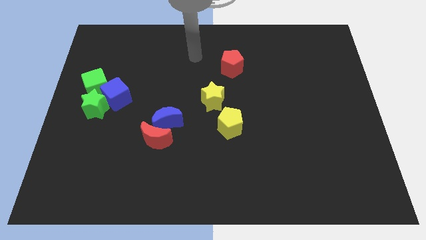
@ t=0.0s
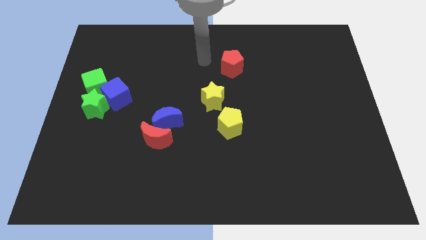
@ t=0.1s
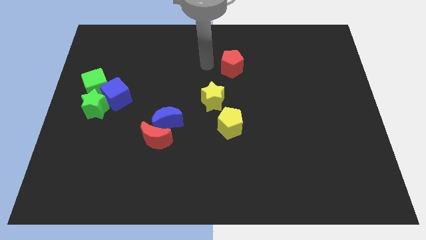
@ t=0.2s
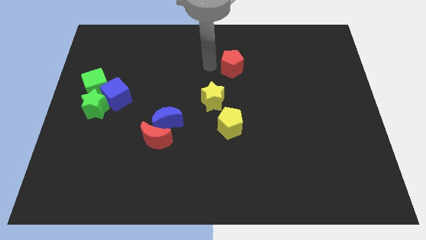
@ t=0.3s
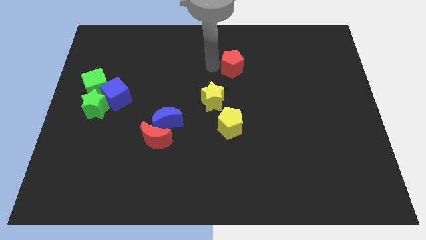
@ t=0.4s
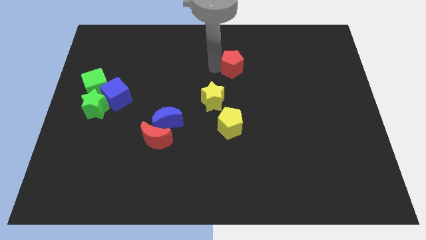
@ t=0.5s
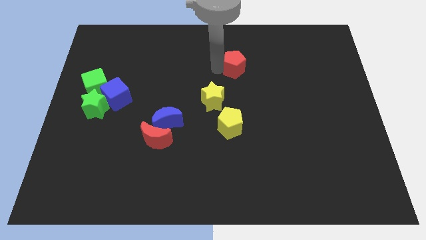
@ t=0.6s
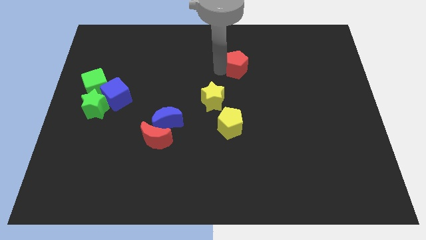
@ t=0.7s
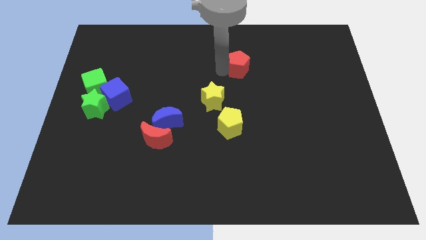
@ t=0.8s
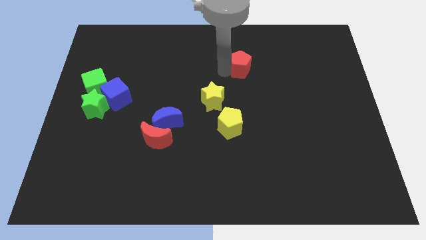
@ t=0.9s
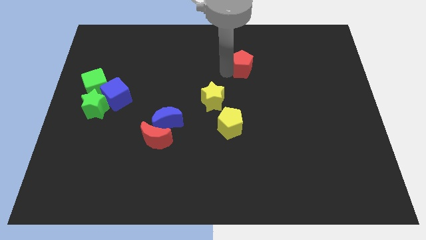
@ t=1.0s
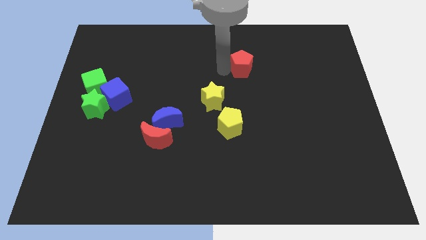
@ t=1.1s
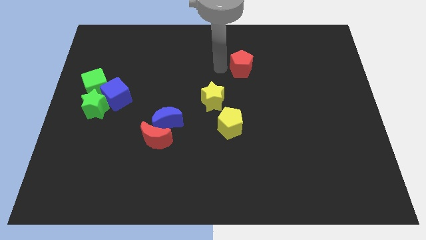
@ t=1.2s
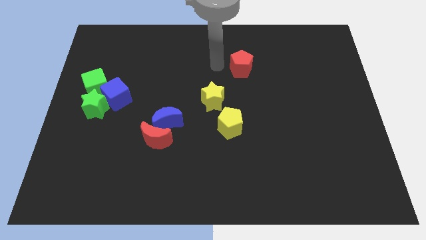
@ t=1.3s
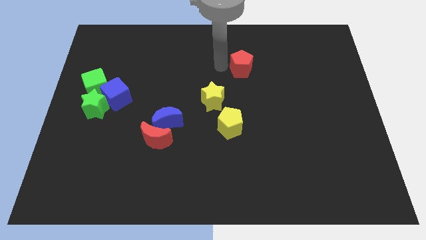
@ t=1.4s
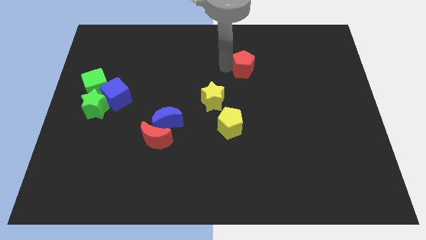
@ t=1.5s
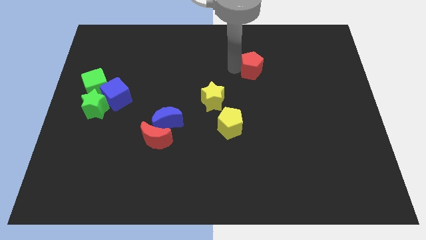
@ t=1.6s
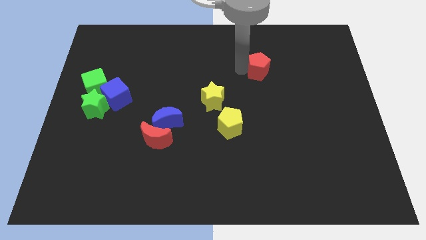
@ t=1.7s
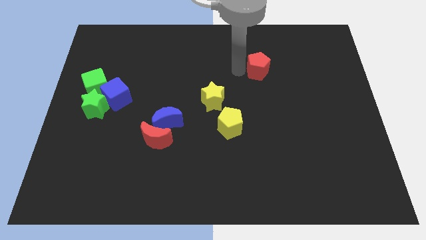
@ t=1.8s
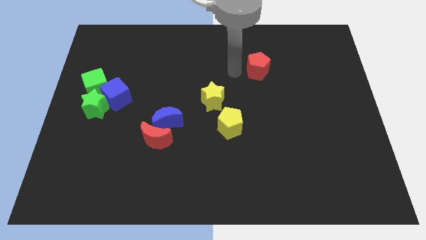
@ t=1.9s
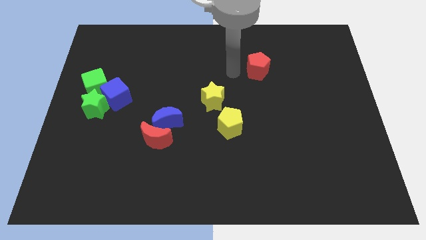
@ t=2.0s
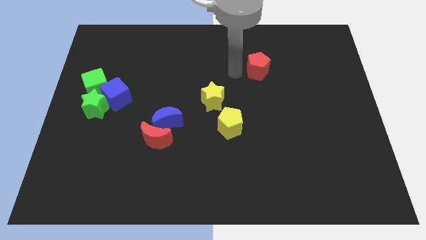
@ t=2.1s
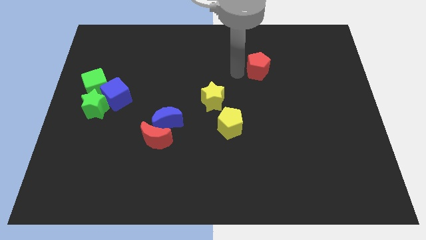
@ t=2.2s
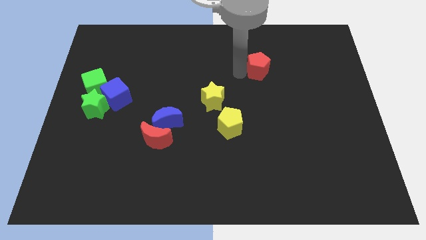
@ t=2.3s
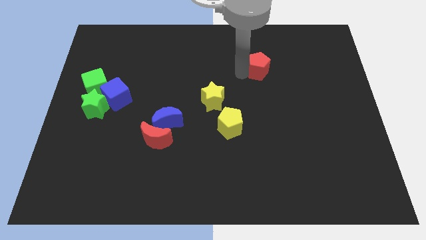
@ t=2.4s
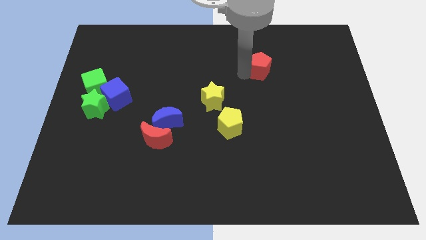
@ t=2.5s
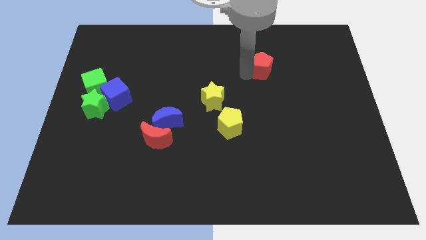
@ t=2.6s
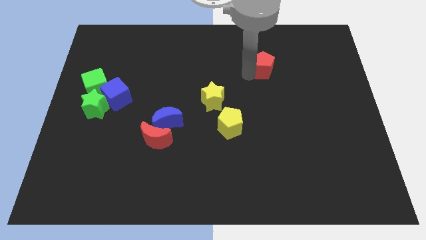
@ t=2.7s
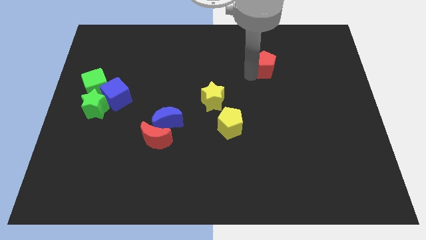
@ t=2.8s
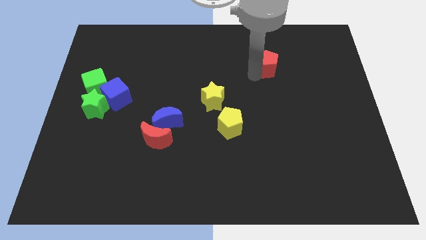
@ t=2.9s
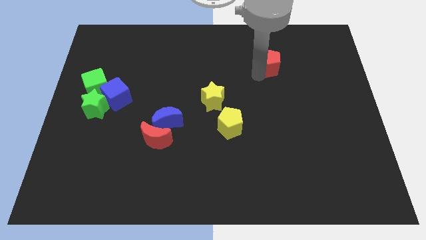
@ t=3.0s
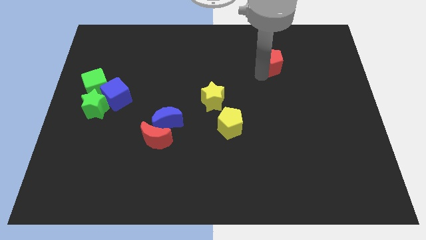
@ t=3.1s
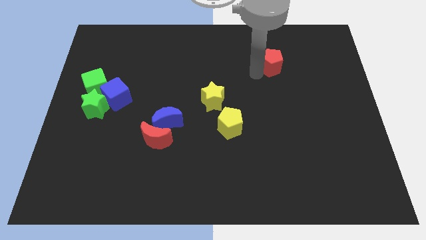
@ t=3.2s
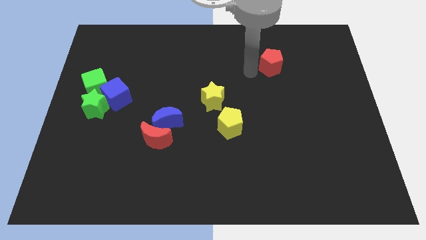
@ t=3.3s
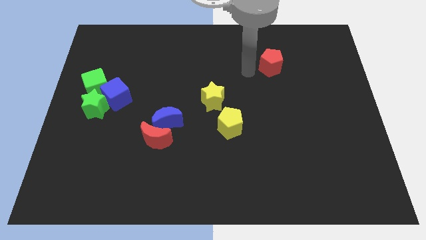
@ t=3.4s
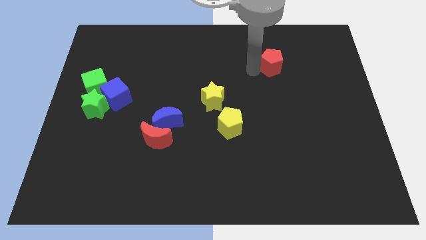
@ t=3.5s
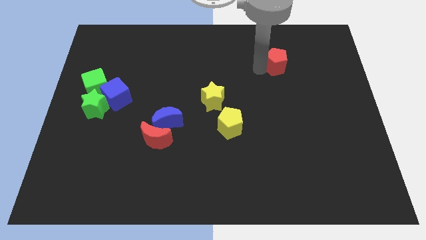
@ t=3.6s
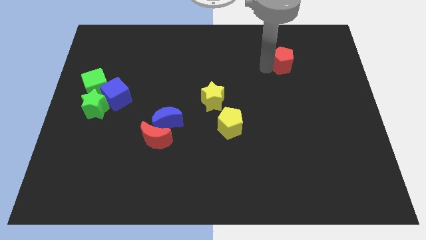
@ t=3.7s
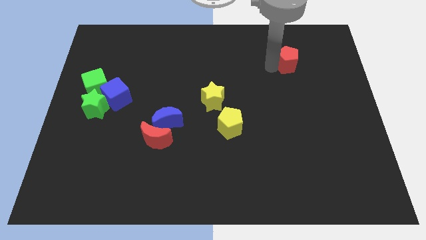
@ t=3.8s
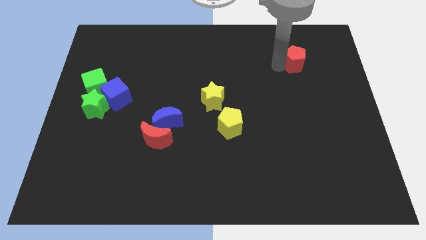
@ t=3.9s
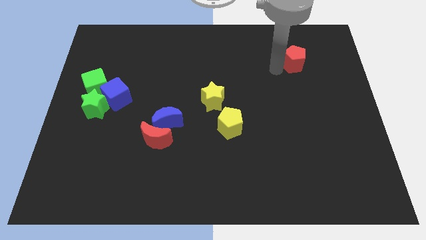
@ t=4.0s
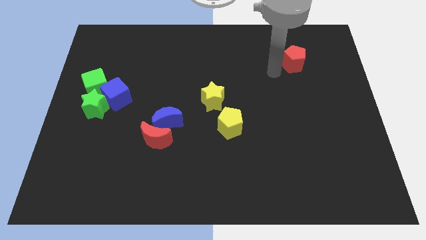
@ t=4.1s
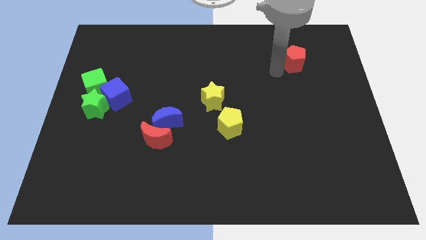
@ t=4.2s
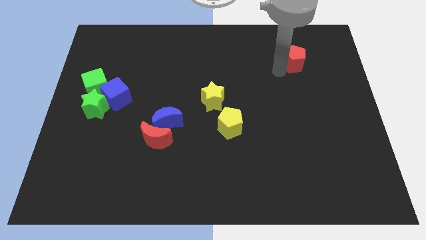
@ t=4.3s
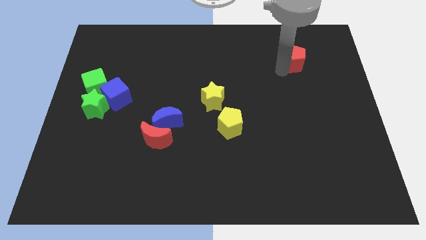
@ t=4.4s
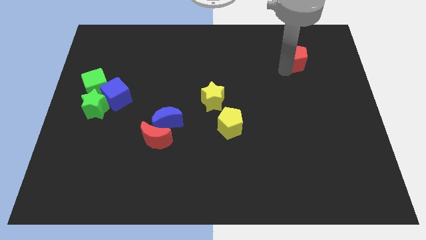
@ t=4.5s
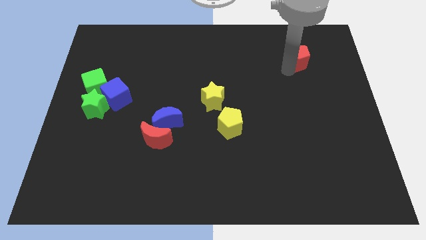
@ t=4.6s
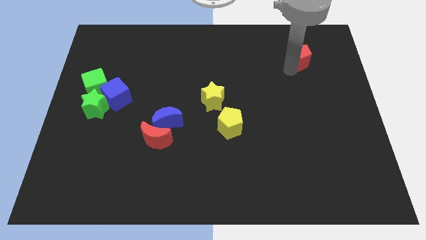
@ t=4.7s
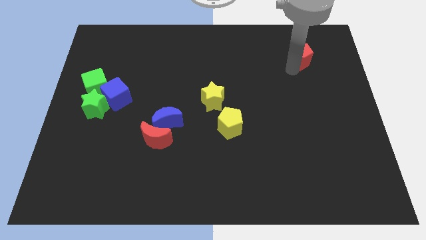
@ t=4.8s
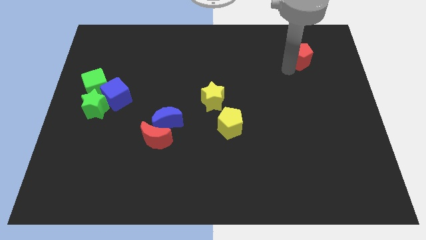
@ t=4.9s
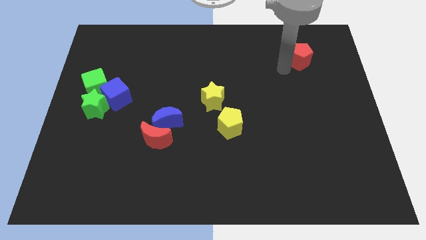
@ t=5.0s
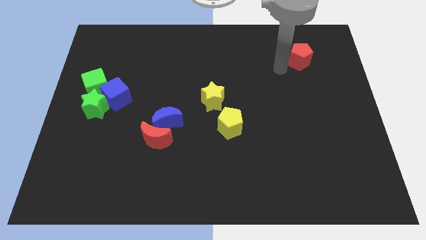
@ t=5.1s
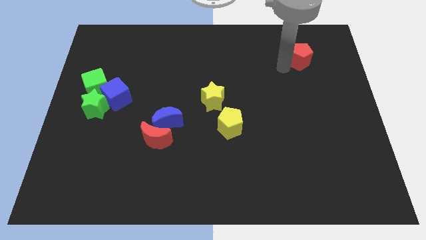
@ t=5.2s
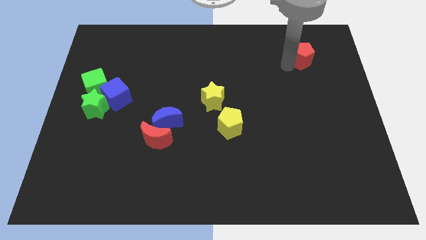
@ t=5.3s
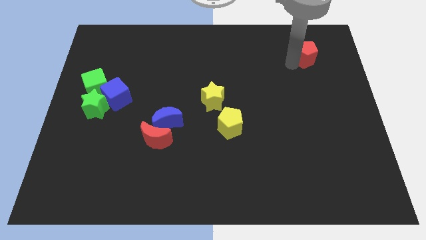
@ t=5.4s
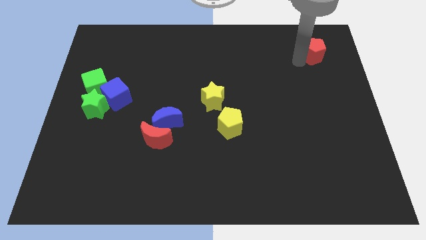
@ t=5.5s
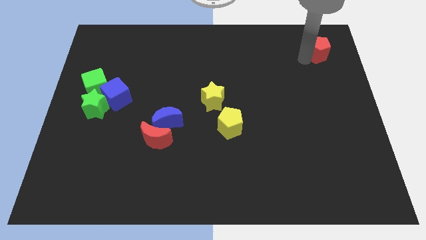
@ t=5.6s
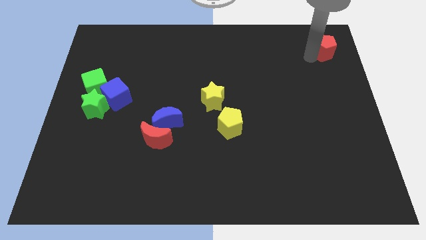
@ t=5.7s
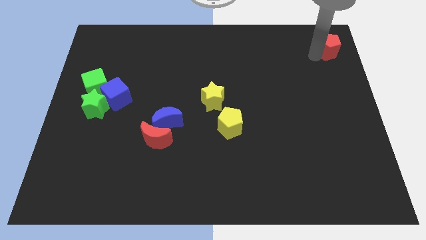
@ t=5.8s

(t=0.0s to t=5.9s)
slide the red pentagon to the top right
